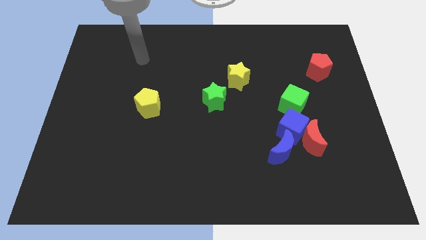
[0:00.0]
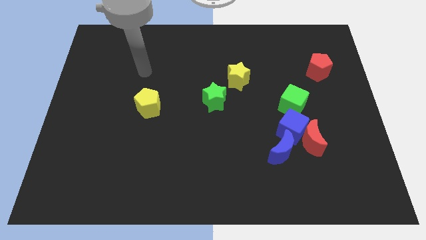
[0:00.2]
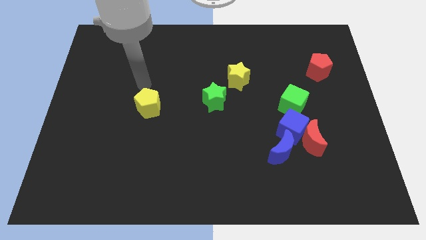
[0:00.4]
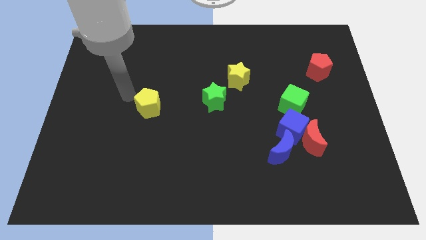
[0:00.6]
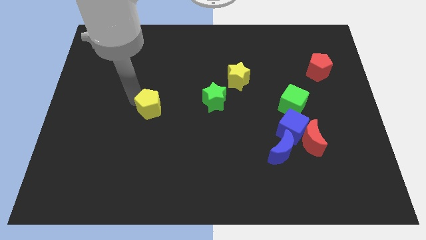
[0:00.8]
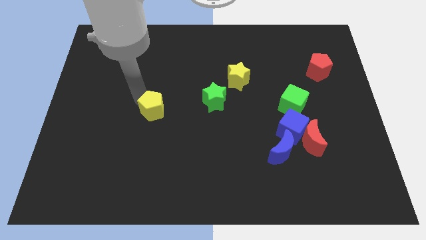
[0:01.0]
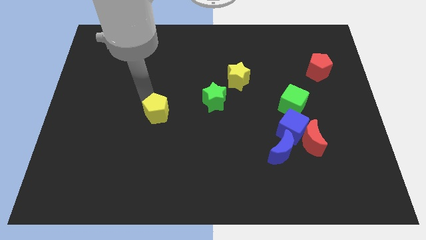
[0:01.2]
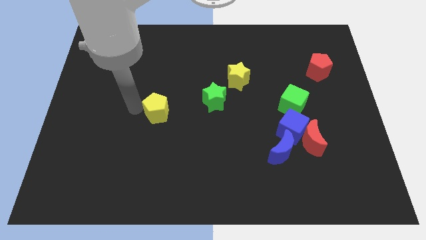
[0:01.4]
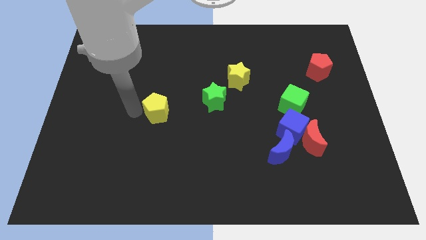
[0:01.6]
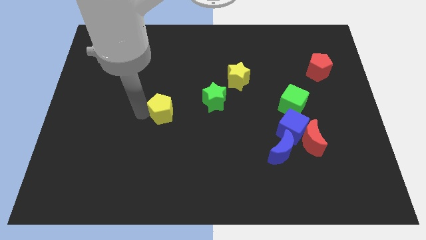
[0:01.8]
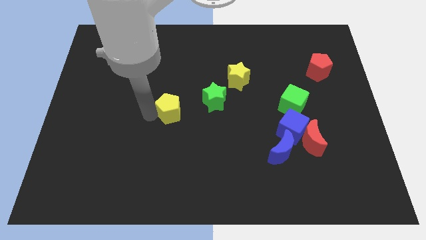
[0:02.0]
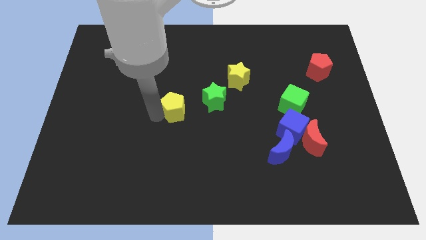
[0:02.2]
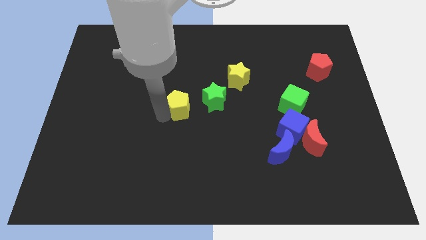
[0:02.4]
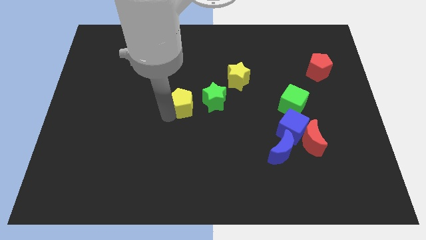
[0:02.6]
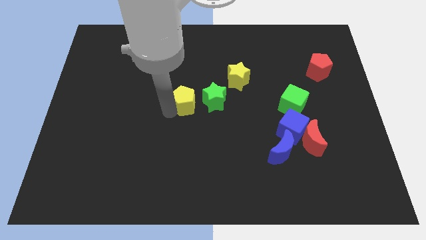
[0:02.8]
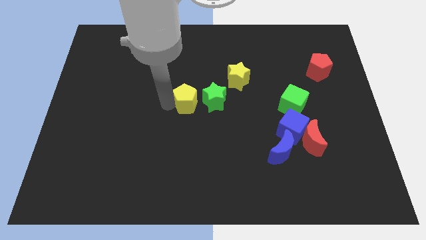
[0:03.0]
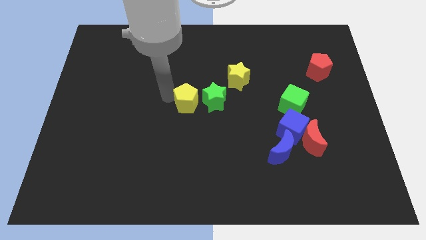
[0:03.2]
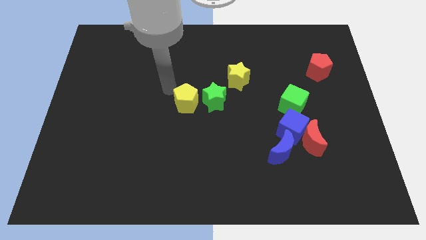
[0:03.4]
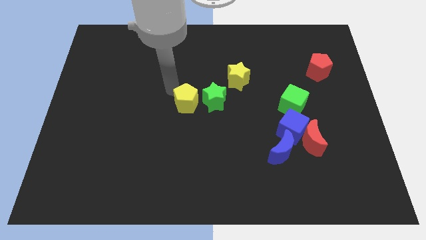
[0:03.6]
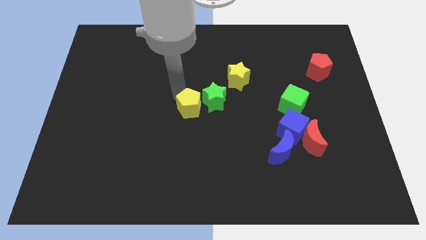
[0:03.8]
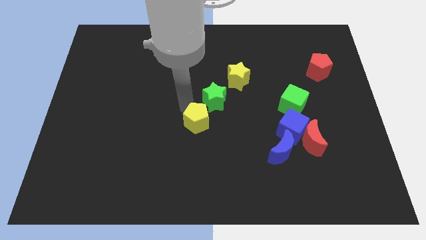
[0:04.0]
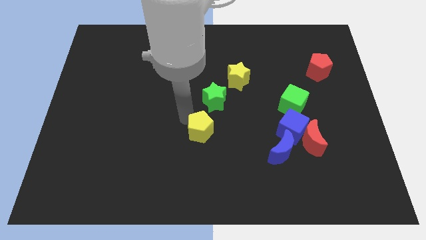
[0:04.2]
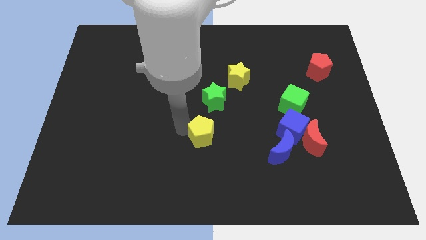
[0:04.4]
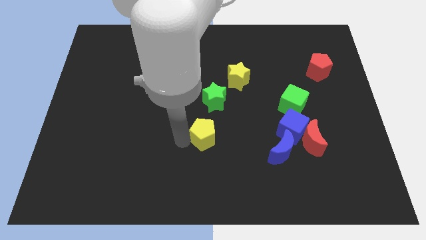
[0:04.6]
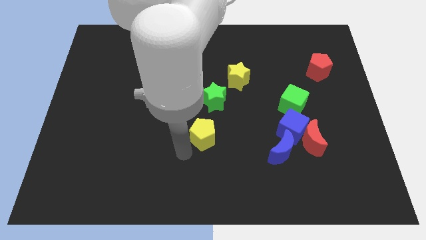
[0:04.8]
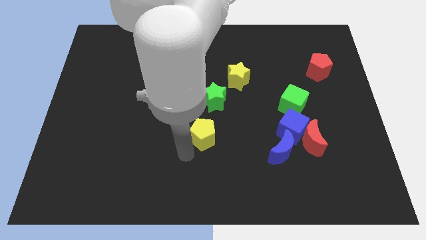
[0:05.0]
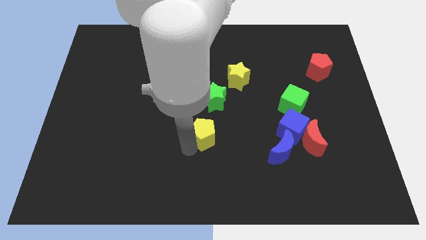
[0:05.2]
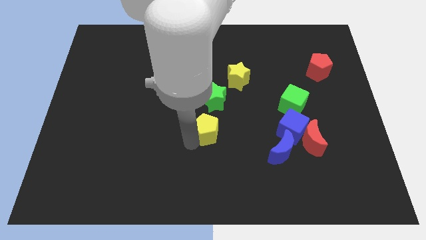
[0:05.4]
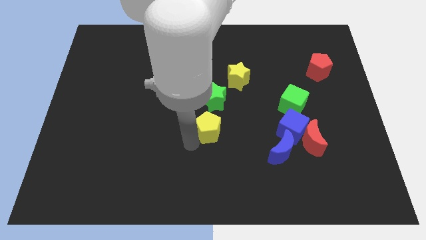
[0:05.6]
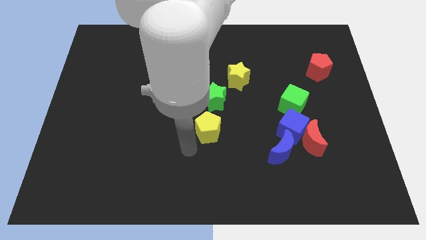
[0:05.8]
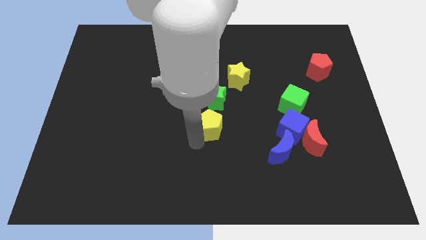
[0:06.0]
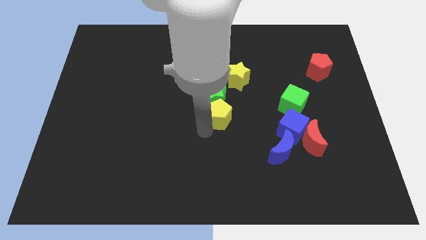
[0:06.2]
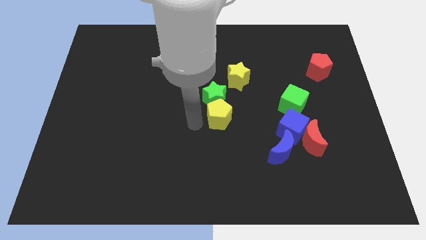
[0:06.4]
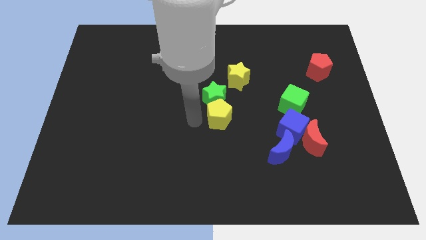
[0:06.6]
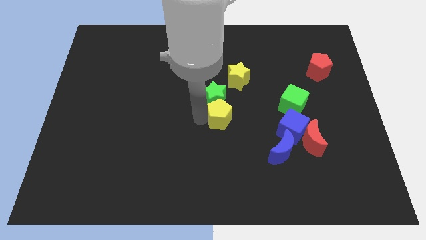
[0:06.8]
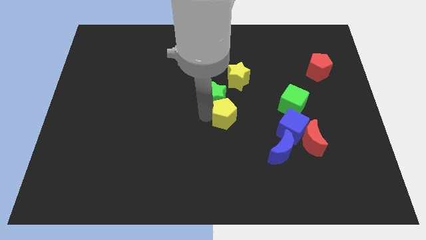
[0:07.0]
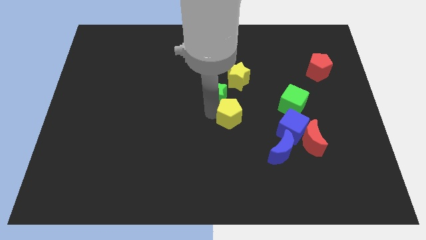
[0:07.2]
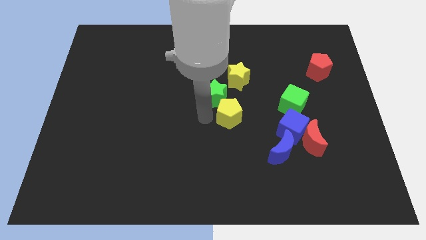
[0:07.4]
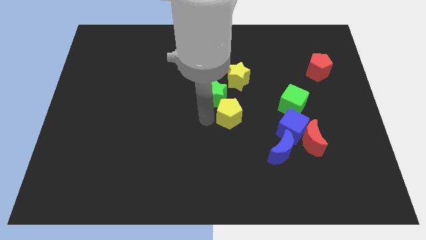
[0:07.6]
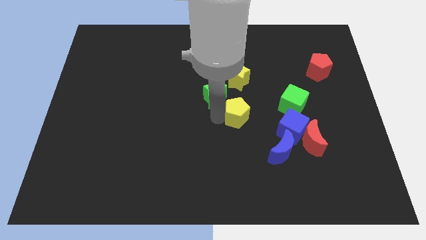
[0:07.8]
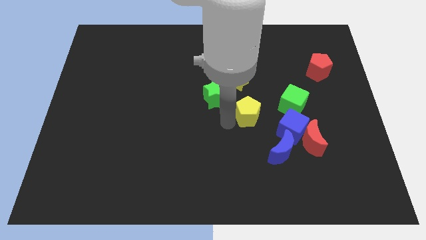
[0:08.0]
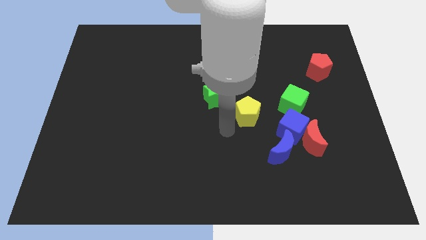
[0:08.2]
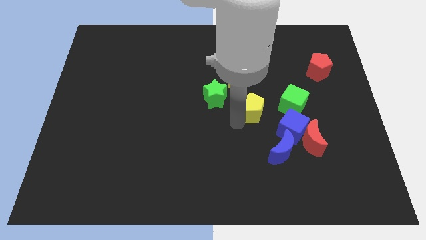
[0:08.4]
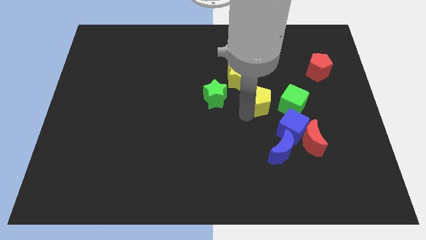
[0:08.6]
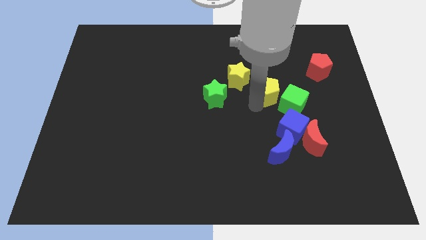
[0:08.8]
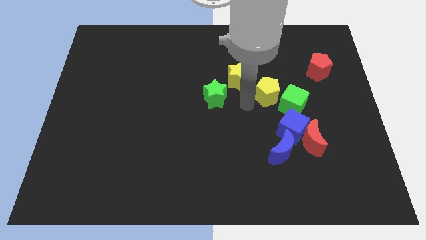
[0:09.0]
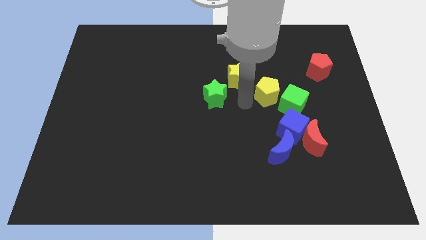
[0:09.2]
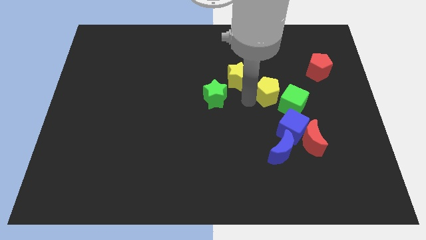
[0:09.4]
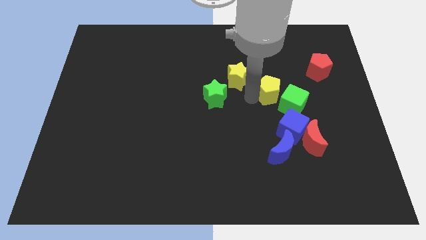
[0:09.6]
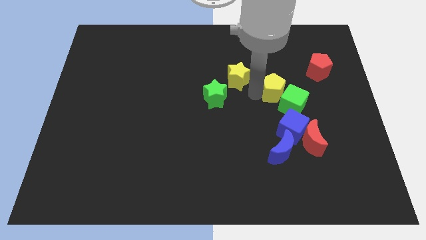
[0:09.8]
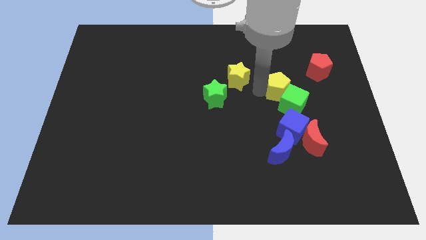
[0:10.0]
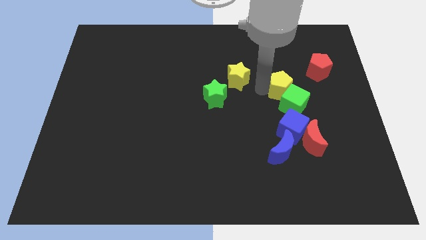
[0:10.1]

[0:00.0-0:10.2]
move the yellow pentagon to the bottom left side of the red pentagon

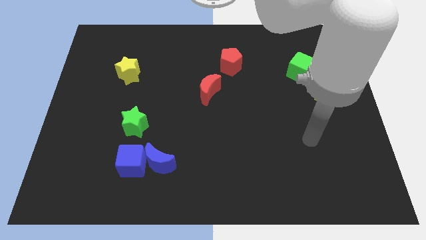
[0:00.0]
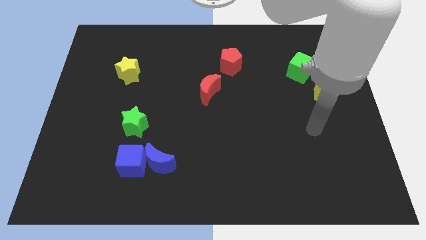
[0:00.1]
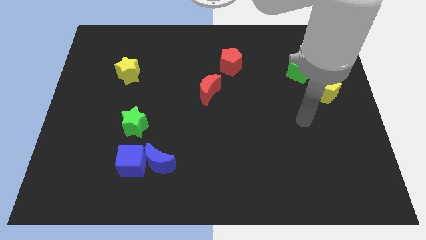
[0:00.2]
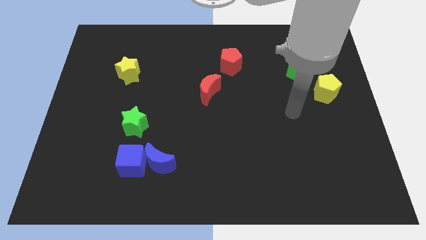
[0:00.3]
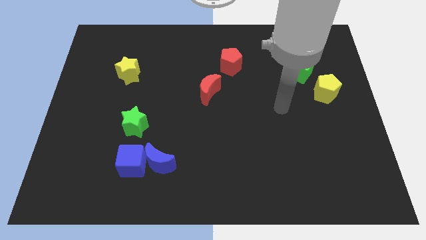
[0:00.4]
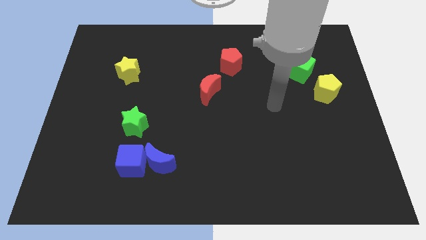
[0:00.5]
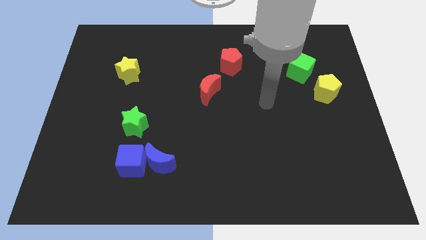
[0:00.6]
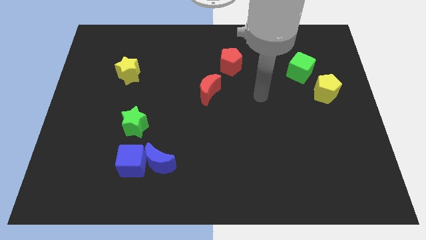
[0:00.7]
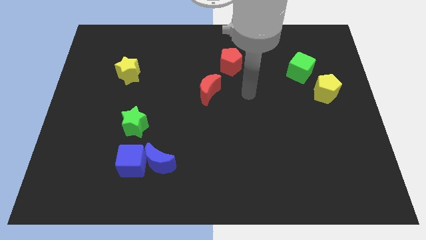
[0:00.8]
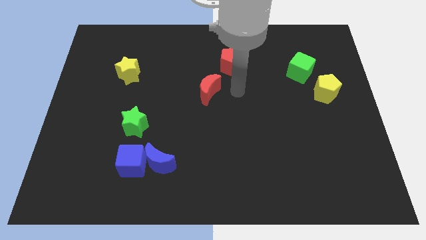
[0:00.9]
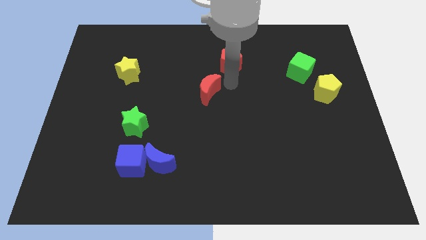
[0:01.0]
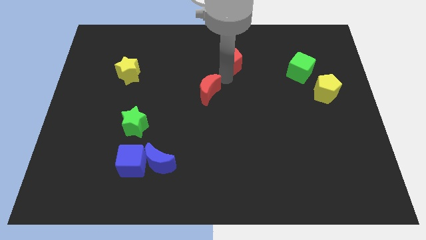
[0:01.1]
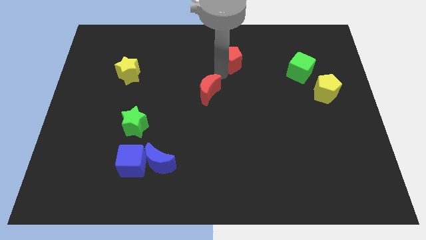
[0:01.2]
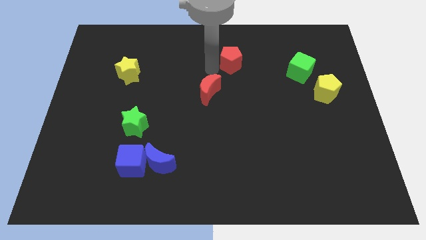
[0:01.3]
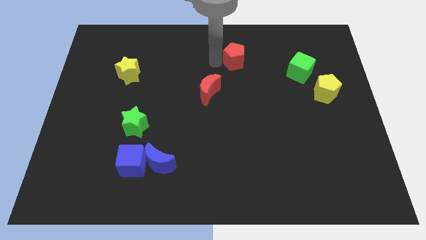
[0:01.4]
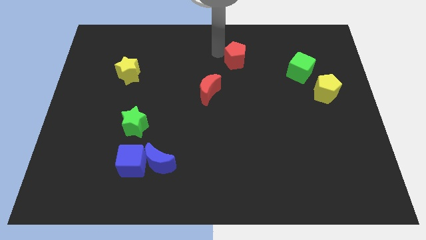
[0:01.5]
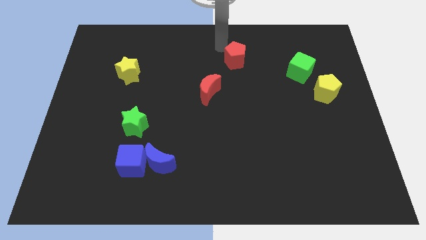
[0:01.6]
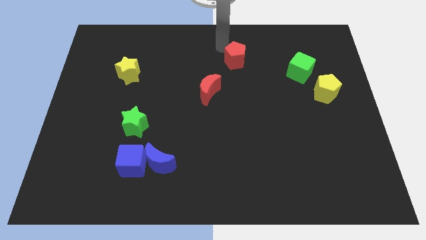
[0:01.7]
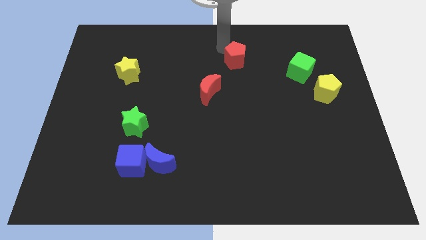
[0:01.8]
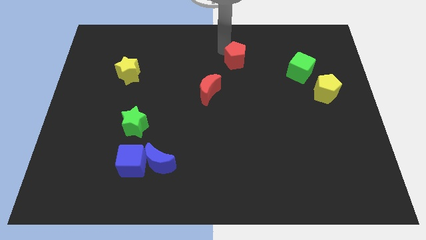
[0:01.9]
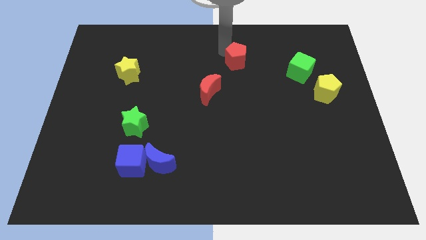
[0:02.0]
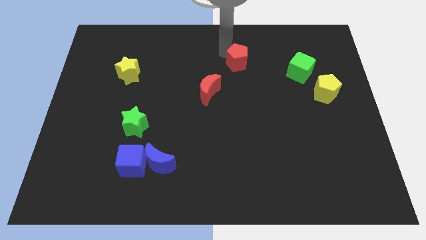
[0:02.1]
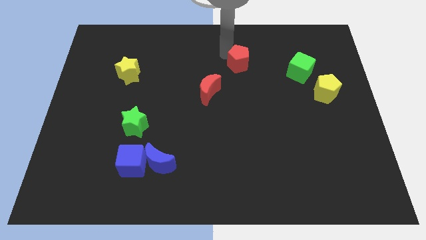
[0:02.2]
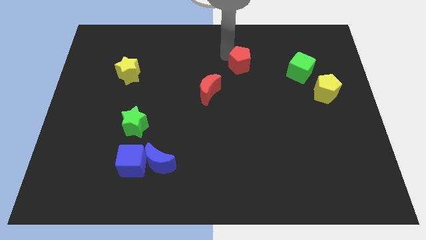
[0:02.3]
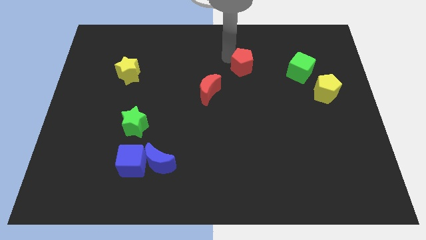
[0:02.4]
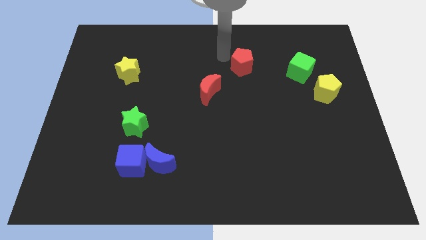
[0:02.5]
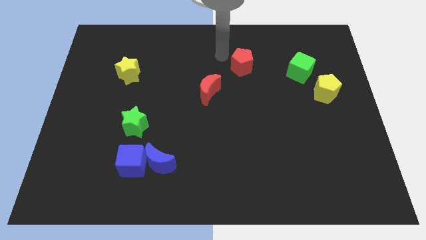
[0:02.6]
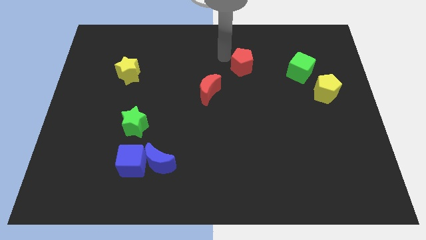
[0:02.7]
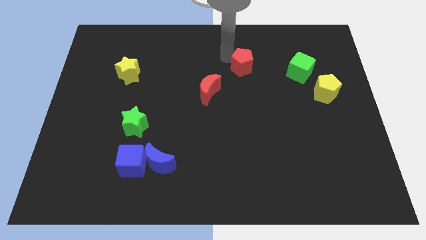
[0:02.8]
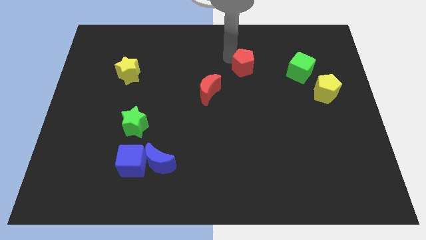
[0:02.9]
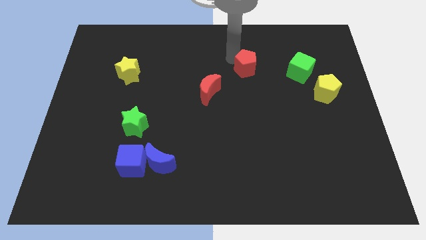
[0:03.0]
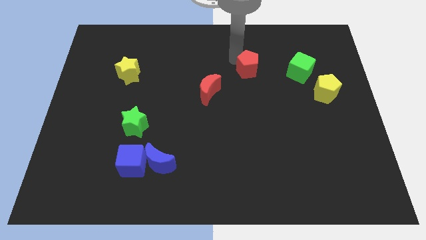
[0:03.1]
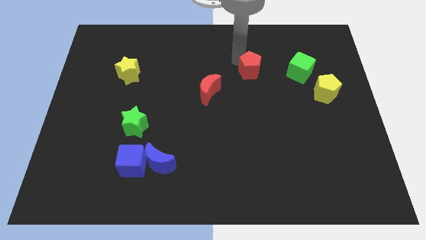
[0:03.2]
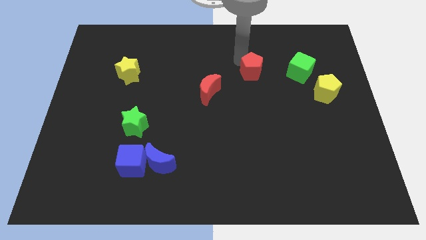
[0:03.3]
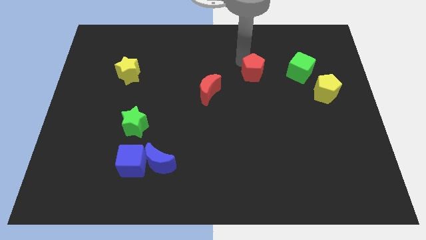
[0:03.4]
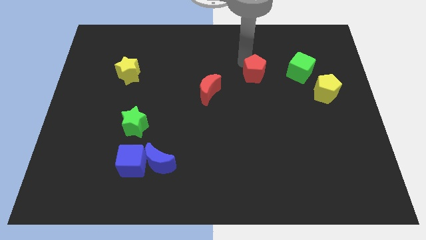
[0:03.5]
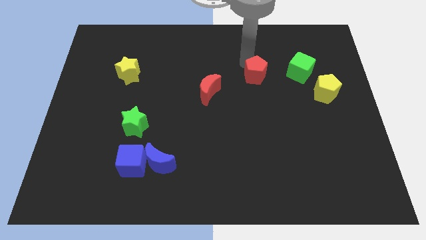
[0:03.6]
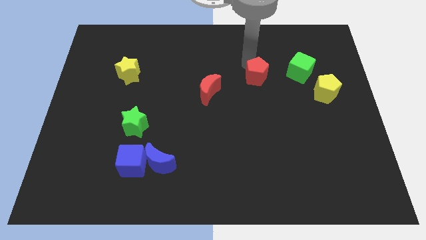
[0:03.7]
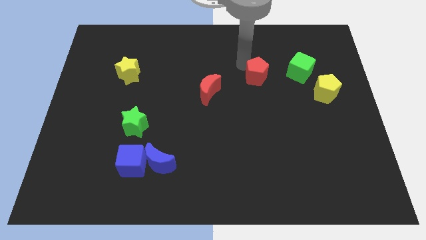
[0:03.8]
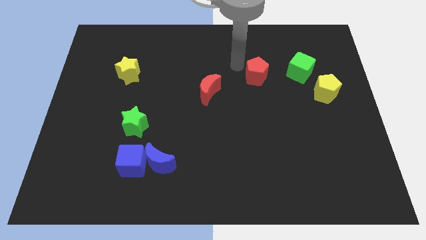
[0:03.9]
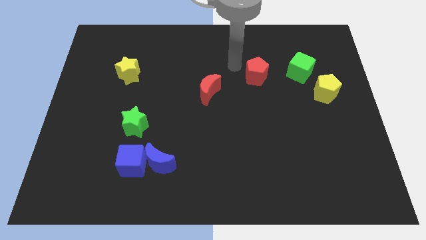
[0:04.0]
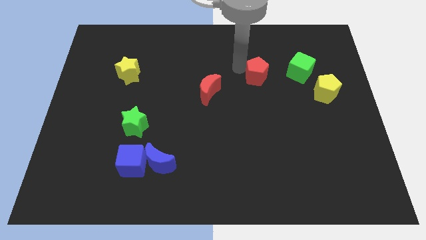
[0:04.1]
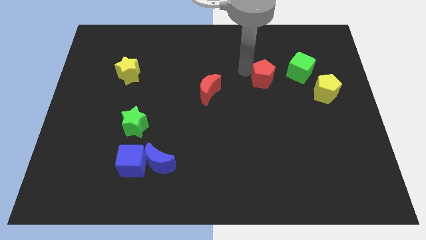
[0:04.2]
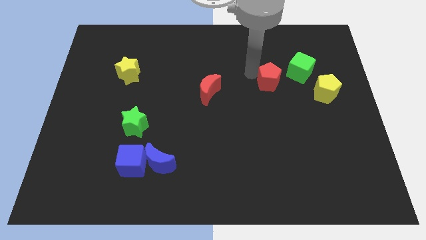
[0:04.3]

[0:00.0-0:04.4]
move the red pentagon diagonally down and to the left of the green cube
